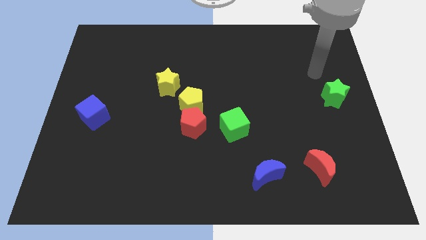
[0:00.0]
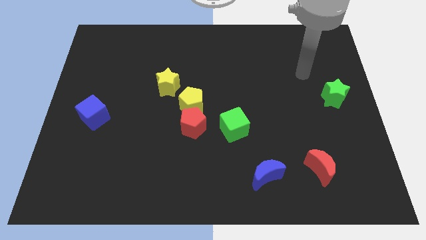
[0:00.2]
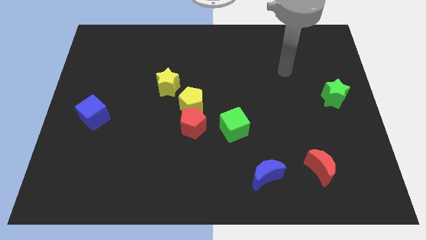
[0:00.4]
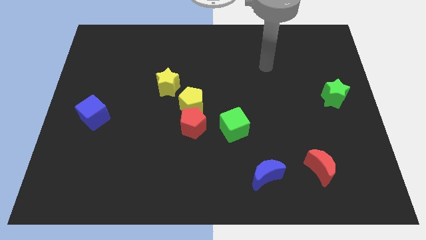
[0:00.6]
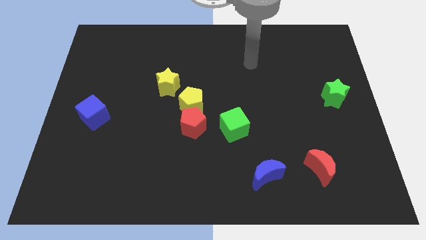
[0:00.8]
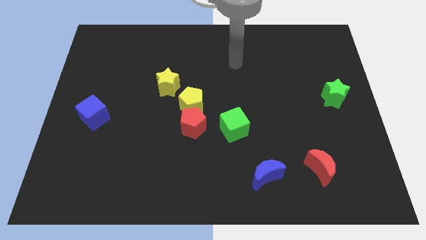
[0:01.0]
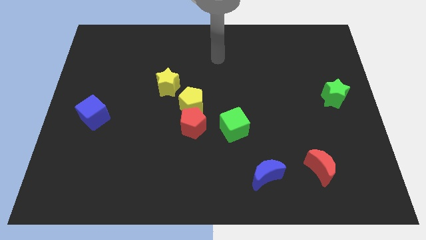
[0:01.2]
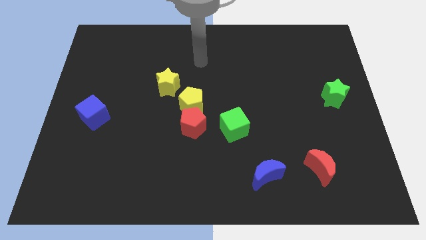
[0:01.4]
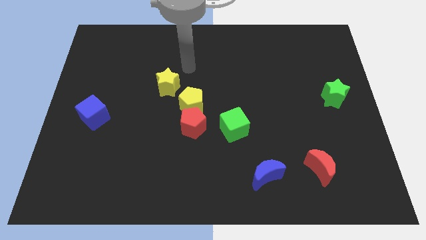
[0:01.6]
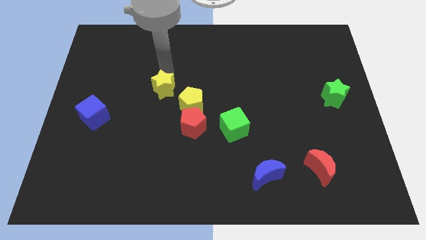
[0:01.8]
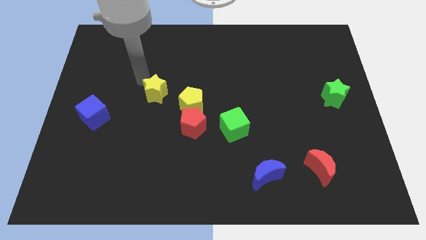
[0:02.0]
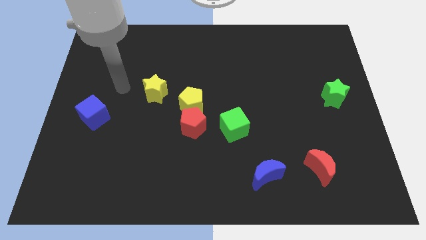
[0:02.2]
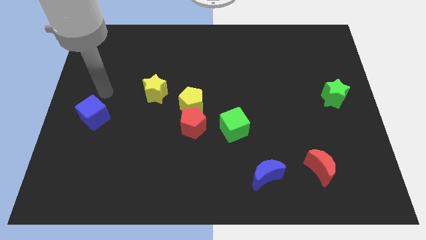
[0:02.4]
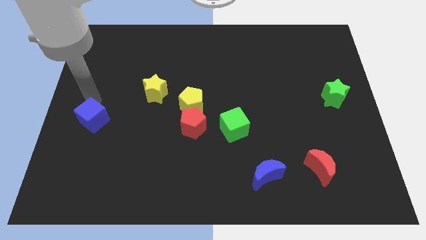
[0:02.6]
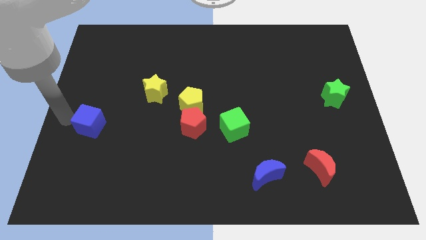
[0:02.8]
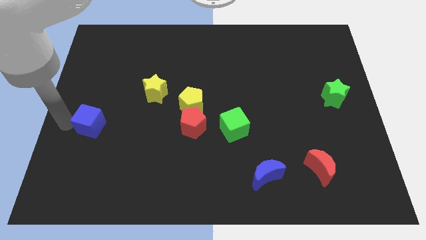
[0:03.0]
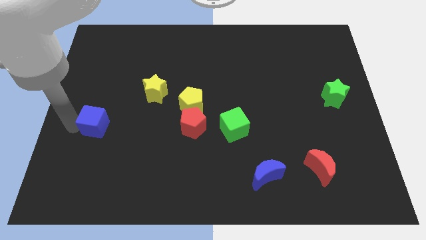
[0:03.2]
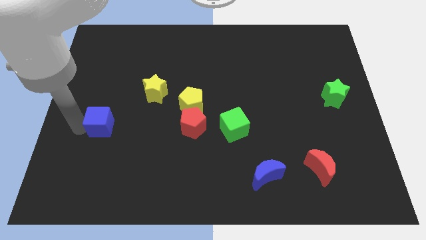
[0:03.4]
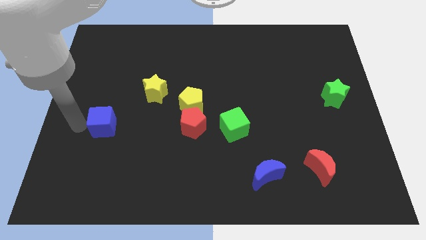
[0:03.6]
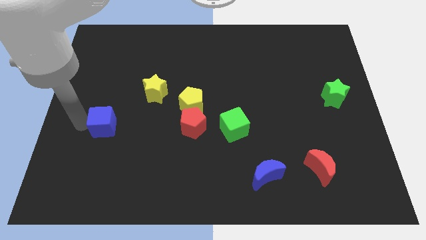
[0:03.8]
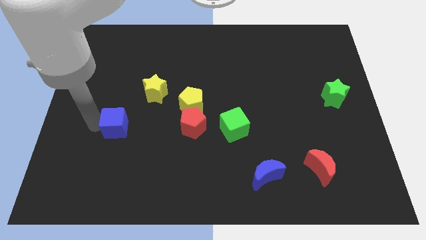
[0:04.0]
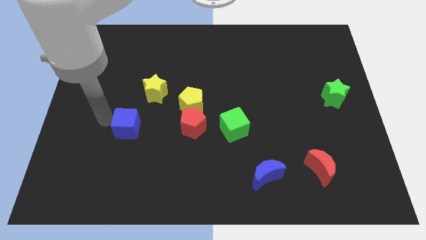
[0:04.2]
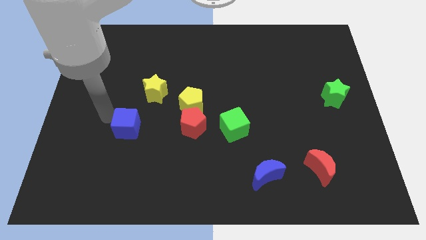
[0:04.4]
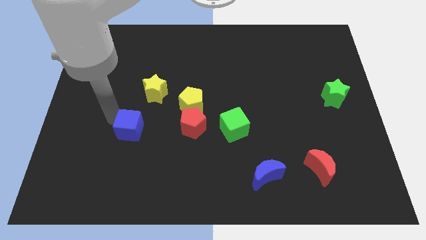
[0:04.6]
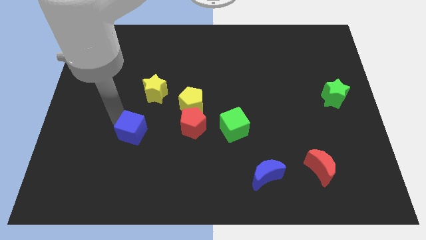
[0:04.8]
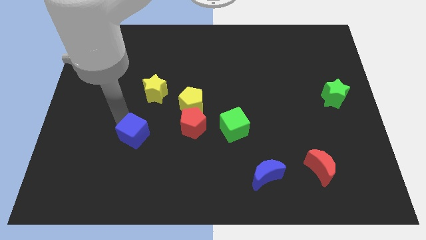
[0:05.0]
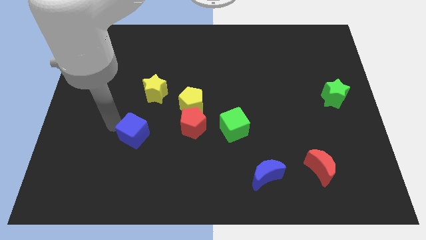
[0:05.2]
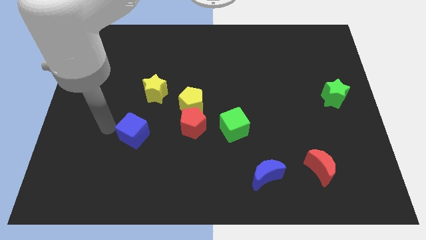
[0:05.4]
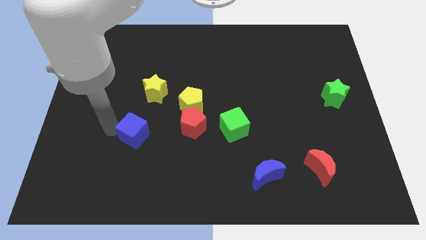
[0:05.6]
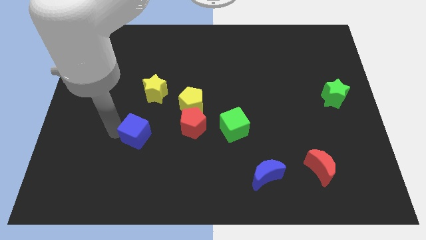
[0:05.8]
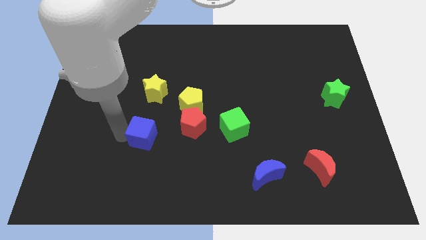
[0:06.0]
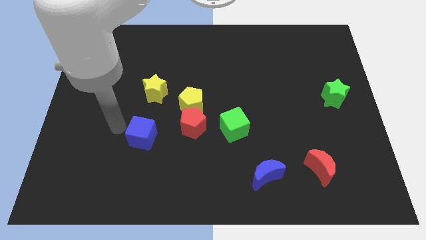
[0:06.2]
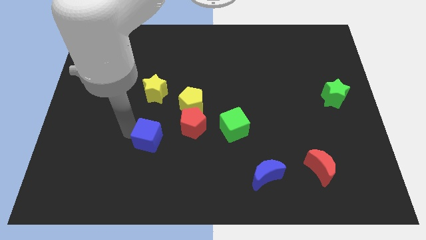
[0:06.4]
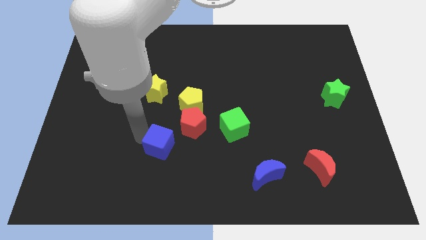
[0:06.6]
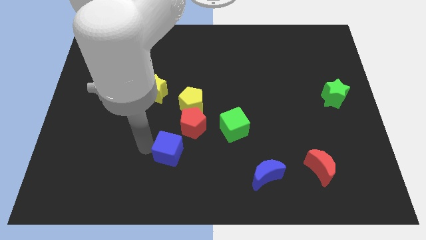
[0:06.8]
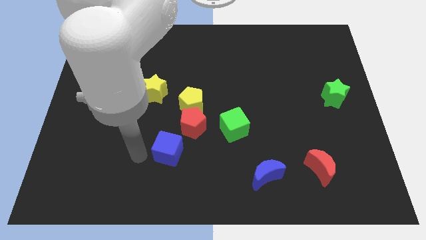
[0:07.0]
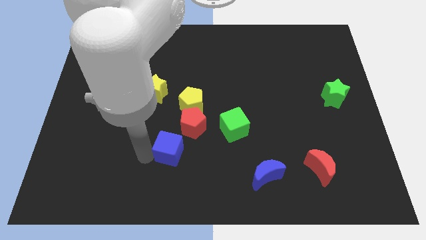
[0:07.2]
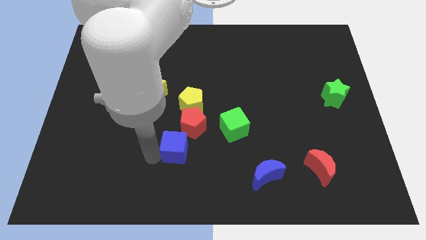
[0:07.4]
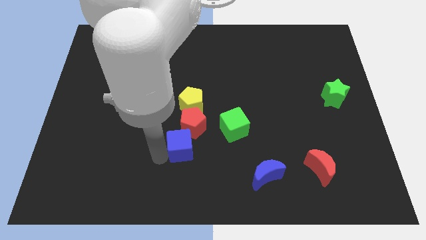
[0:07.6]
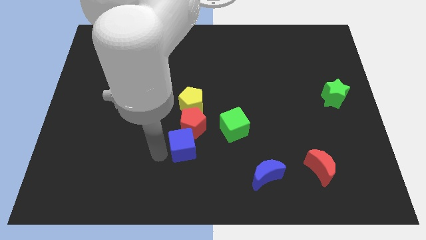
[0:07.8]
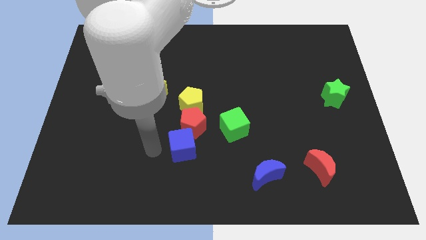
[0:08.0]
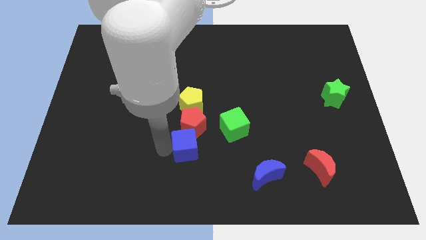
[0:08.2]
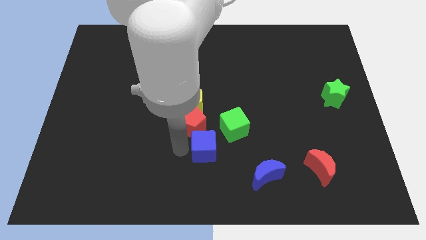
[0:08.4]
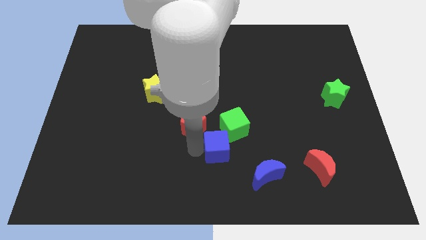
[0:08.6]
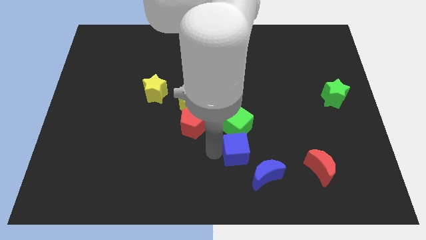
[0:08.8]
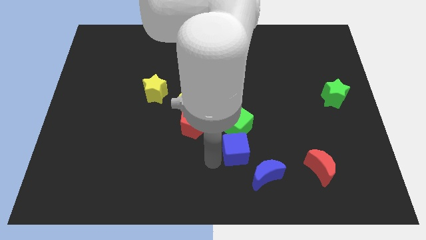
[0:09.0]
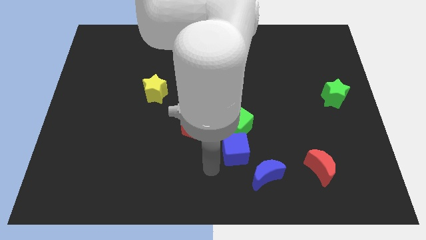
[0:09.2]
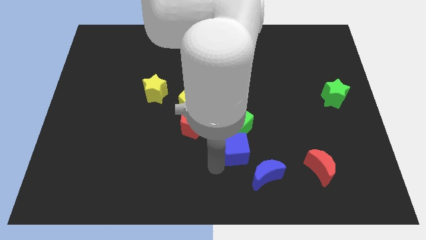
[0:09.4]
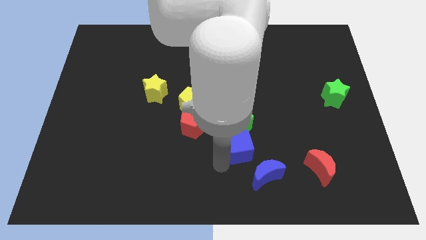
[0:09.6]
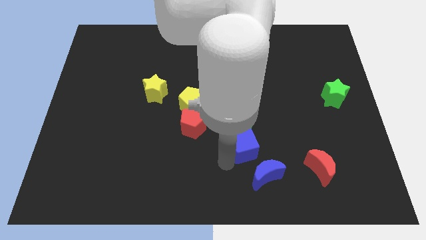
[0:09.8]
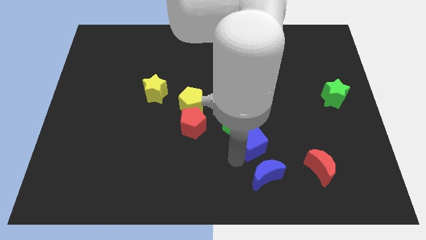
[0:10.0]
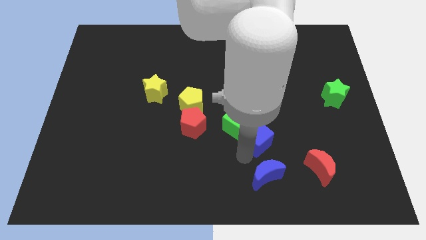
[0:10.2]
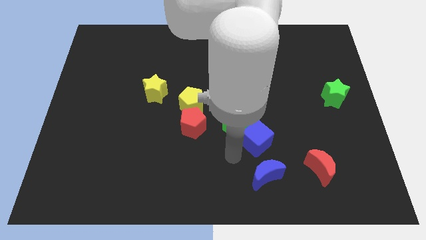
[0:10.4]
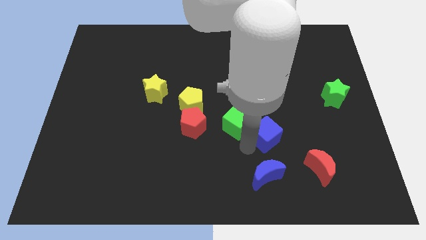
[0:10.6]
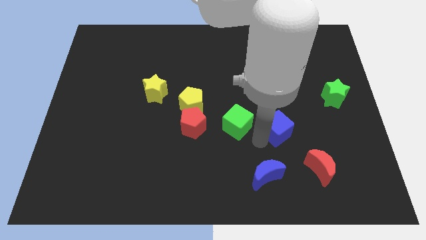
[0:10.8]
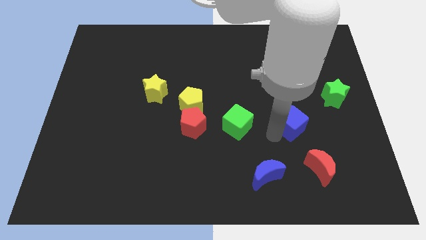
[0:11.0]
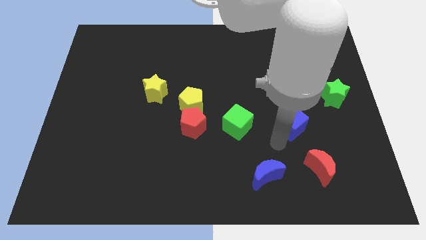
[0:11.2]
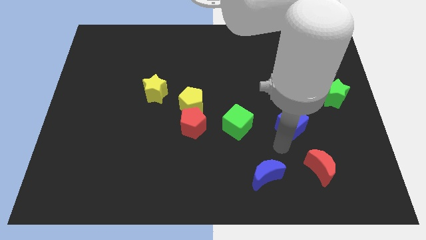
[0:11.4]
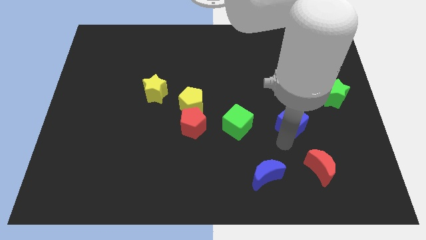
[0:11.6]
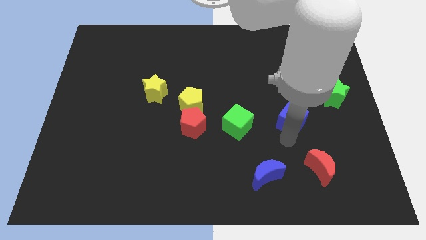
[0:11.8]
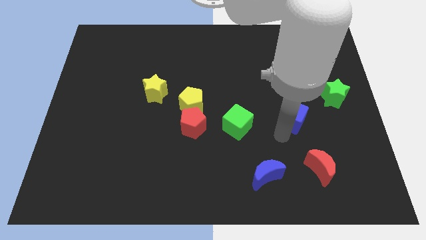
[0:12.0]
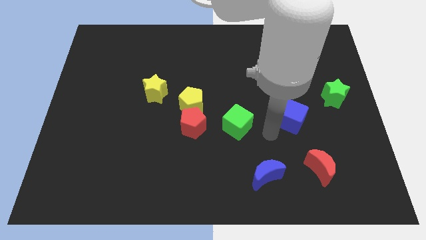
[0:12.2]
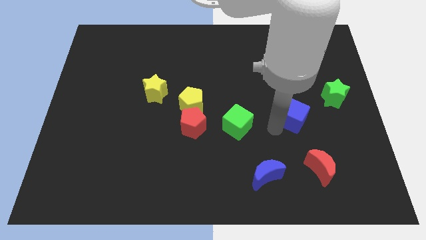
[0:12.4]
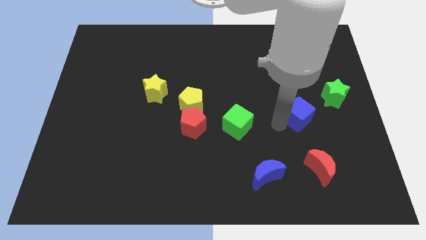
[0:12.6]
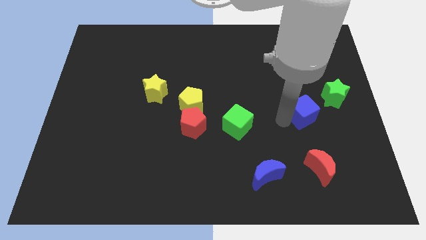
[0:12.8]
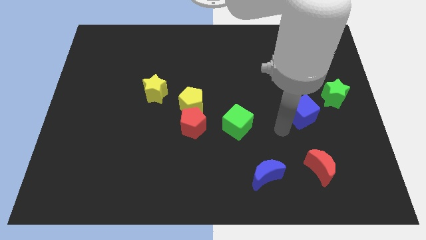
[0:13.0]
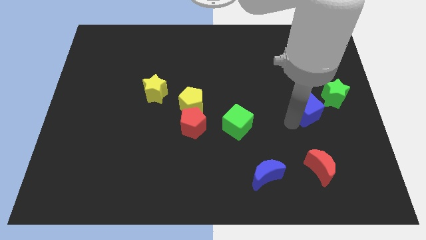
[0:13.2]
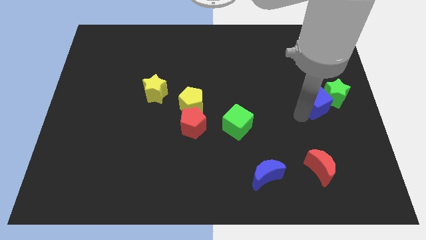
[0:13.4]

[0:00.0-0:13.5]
slide the blue cube next to the green star

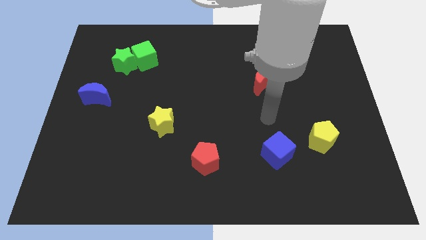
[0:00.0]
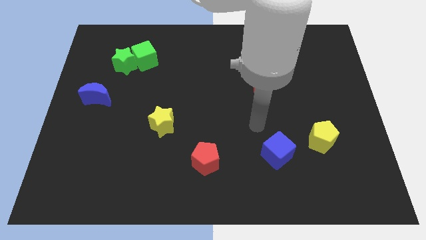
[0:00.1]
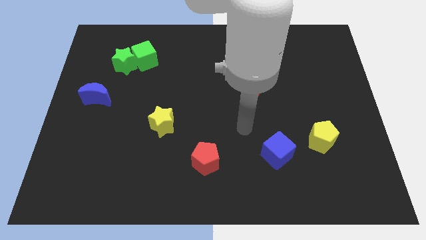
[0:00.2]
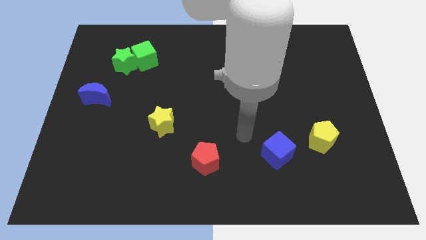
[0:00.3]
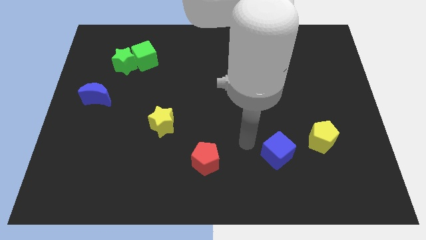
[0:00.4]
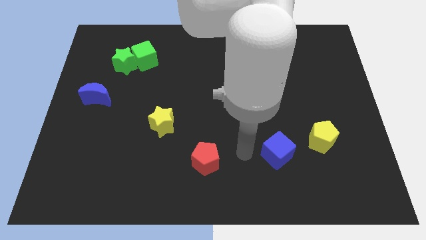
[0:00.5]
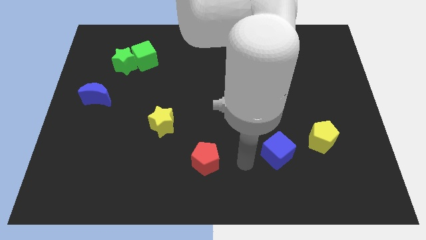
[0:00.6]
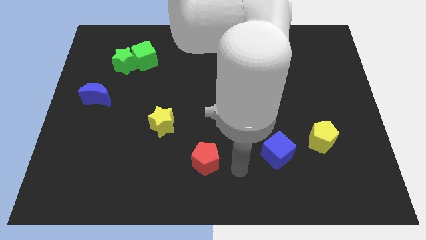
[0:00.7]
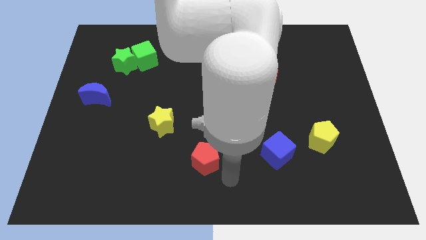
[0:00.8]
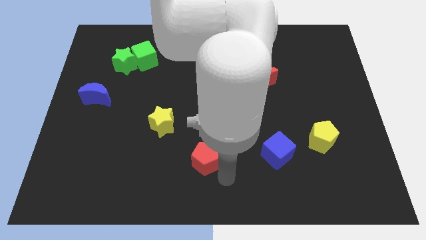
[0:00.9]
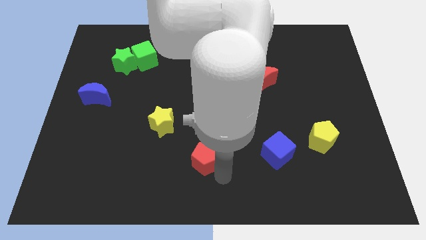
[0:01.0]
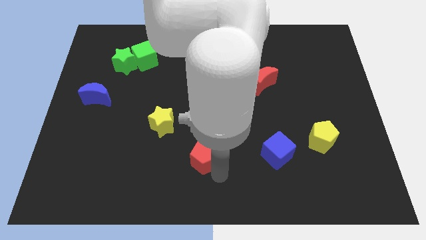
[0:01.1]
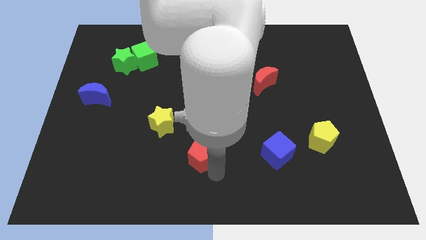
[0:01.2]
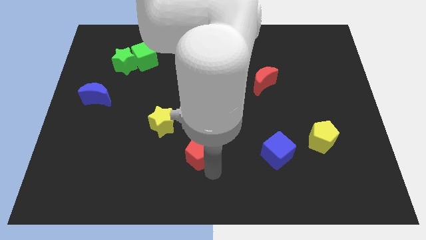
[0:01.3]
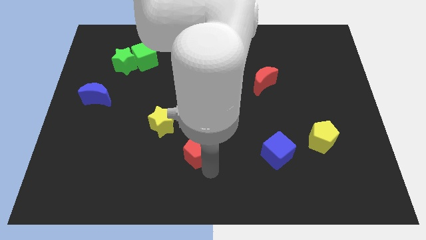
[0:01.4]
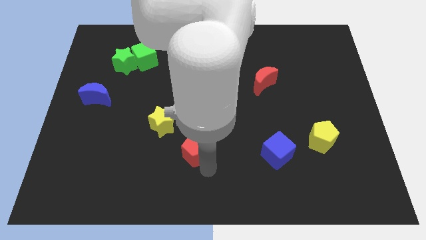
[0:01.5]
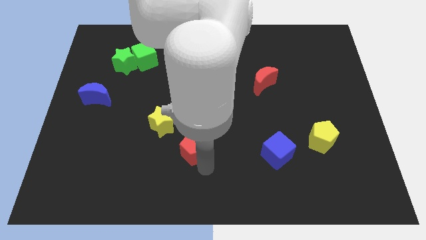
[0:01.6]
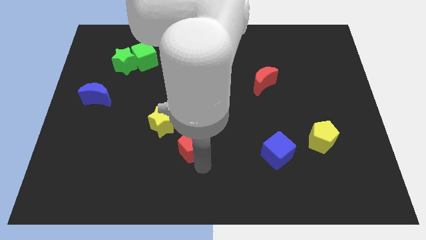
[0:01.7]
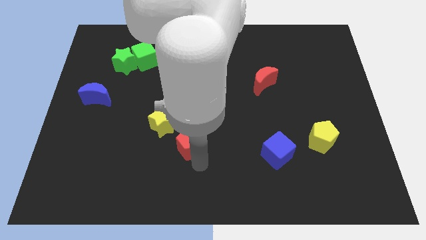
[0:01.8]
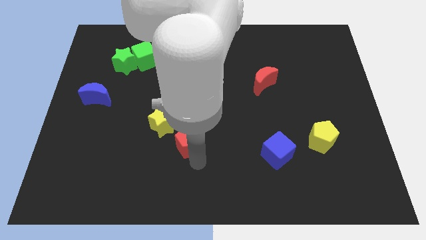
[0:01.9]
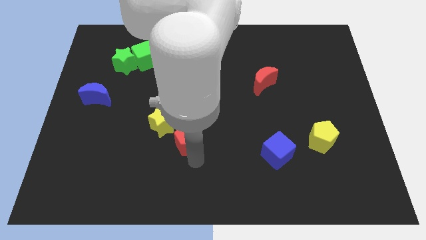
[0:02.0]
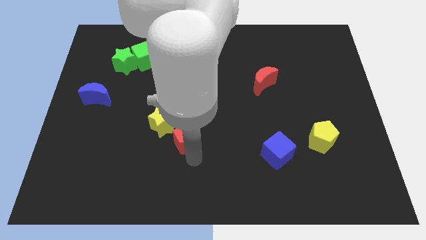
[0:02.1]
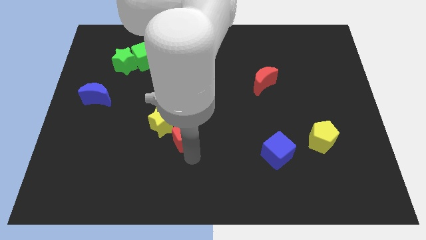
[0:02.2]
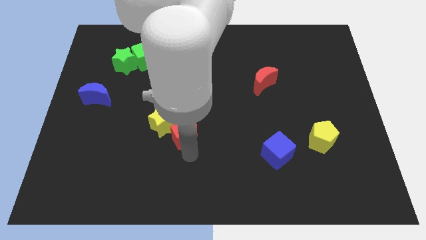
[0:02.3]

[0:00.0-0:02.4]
move the red pentagon to the yellow star
